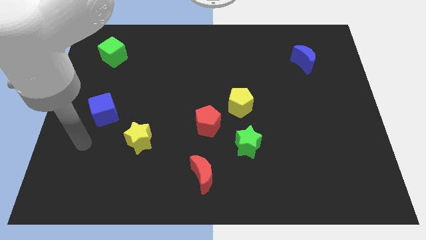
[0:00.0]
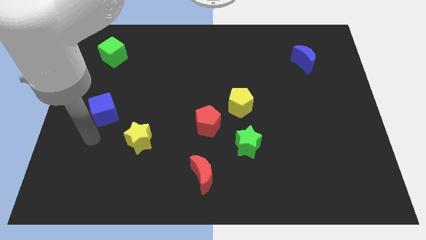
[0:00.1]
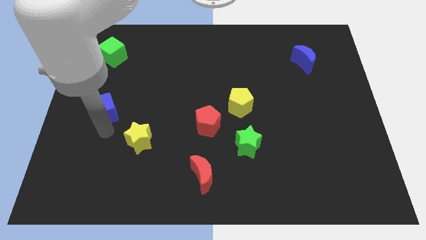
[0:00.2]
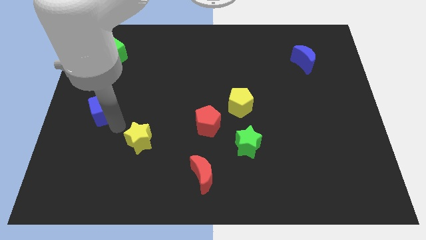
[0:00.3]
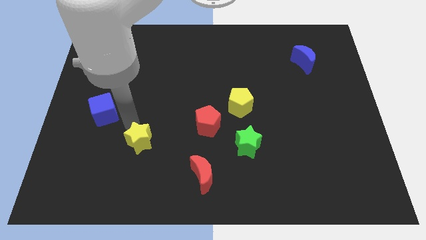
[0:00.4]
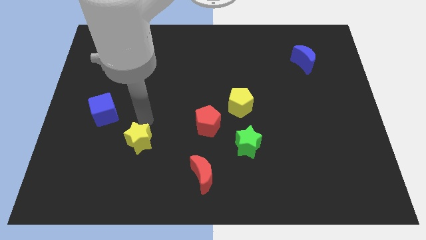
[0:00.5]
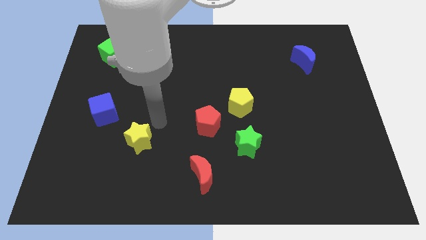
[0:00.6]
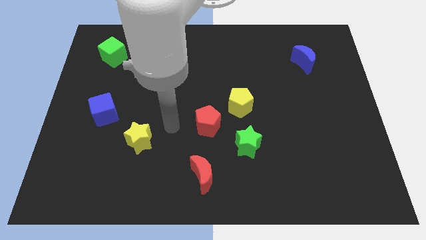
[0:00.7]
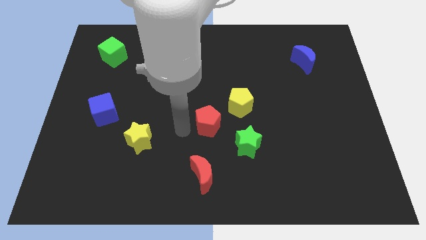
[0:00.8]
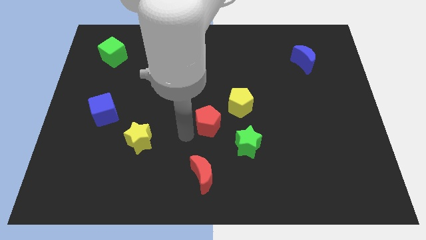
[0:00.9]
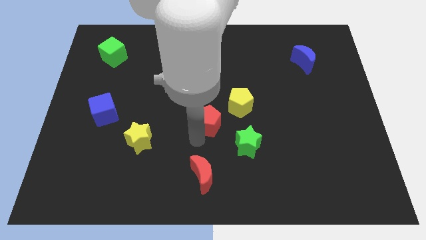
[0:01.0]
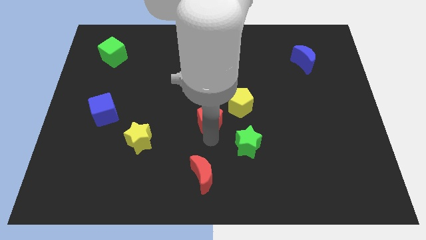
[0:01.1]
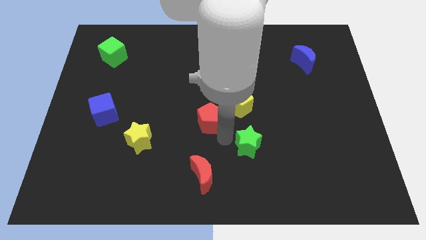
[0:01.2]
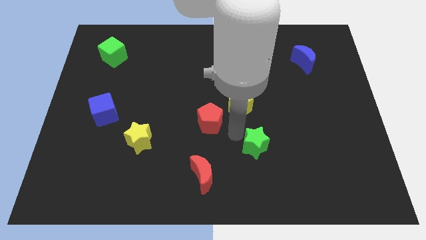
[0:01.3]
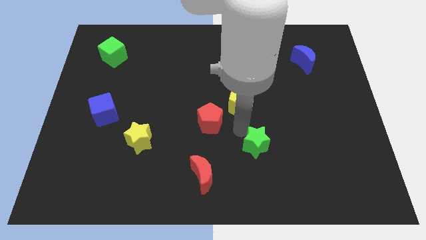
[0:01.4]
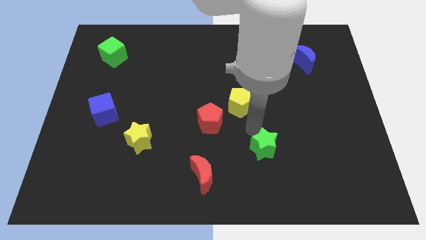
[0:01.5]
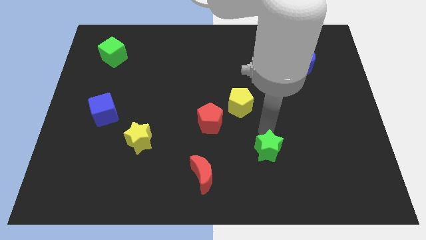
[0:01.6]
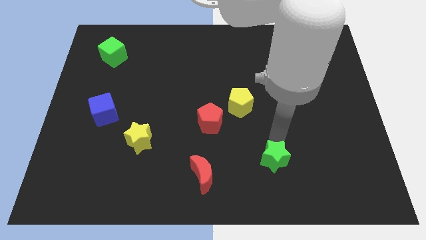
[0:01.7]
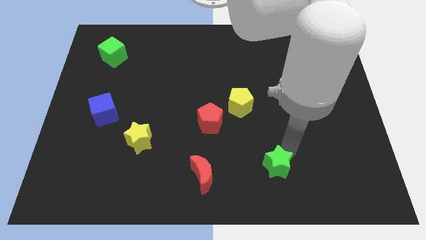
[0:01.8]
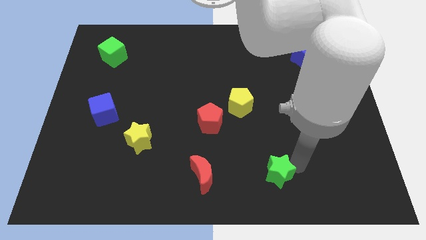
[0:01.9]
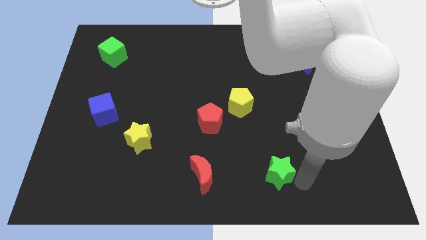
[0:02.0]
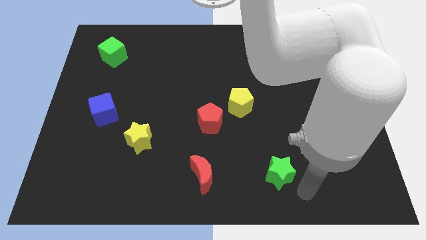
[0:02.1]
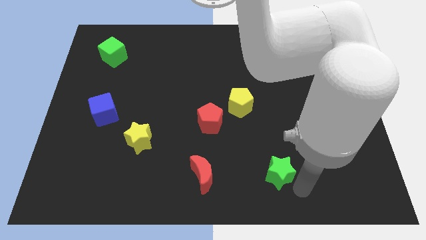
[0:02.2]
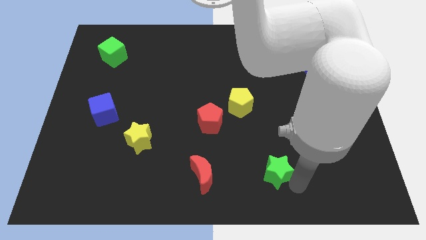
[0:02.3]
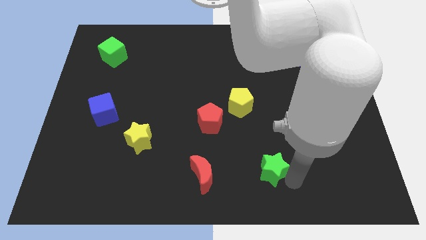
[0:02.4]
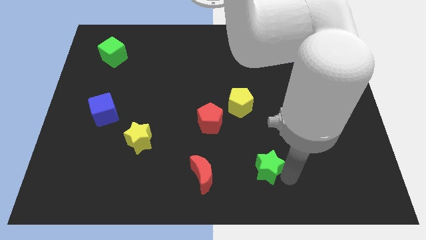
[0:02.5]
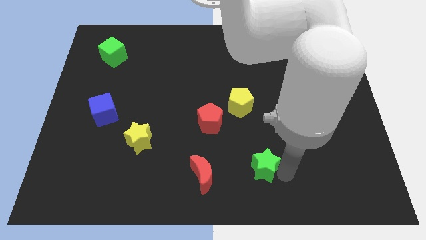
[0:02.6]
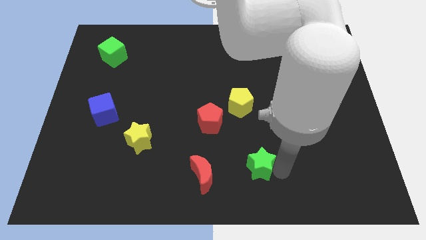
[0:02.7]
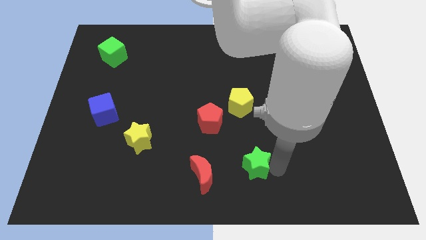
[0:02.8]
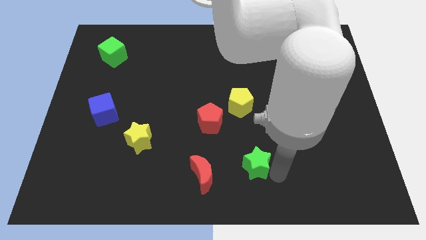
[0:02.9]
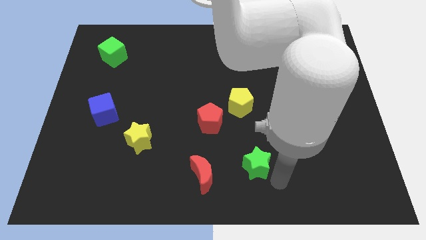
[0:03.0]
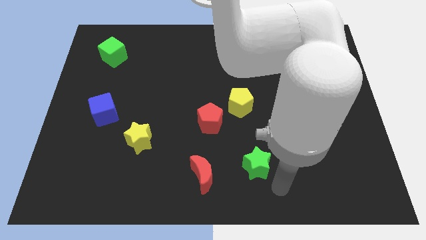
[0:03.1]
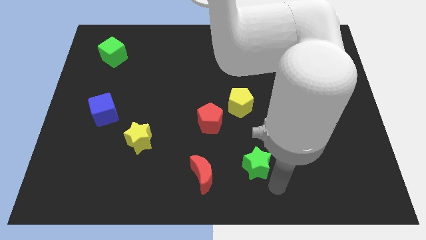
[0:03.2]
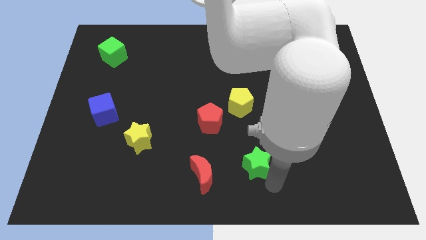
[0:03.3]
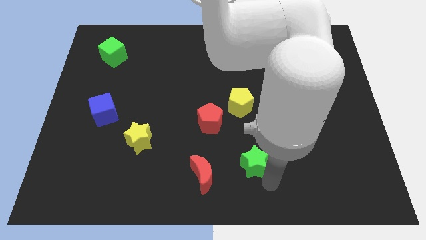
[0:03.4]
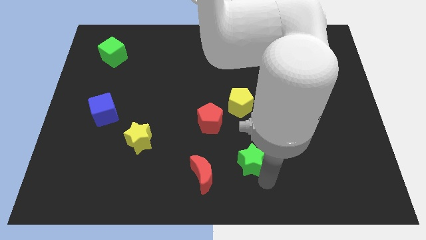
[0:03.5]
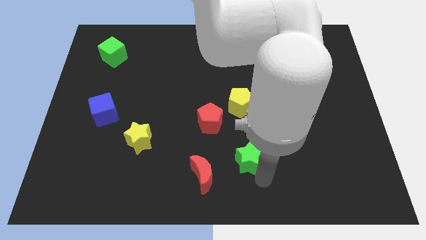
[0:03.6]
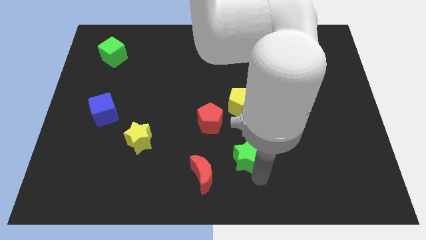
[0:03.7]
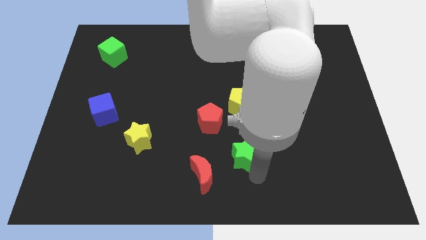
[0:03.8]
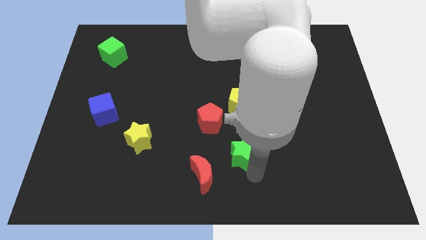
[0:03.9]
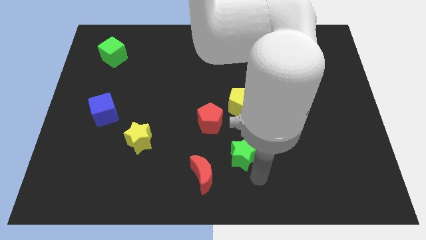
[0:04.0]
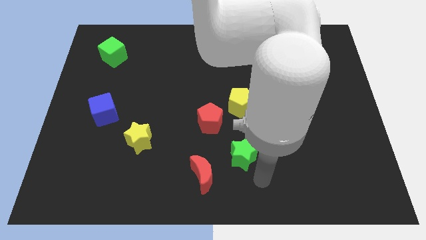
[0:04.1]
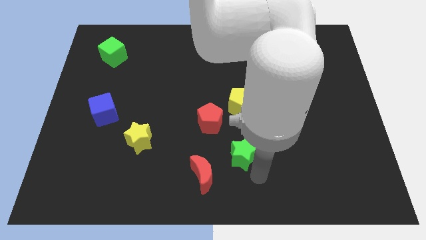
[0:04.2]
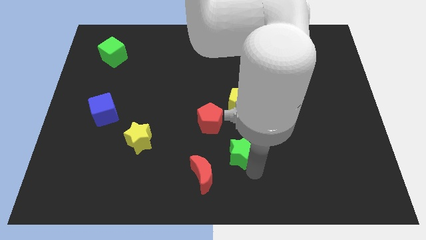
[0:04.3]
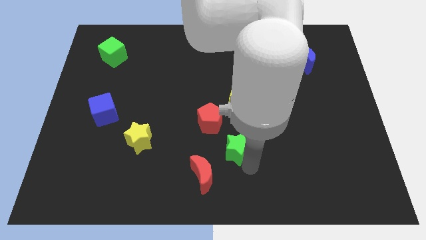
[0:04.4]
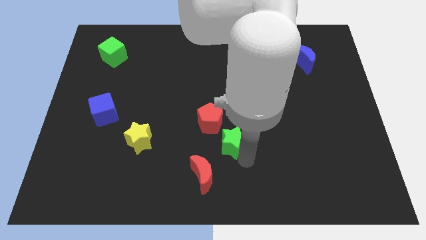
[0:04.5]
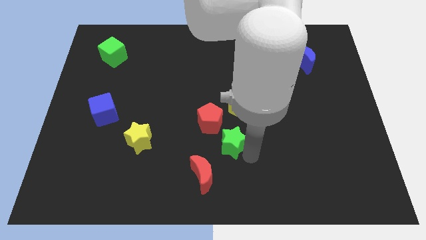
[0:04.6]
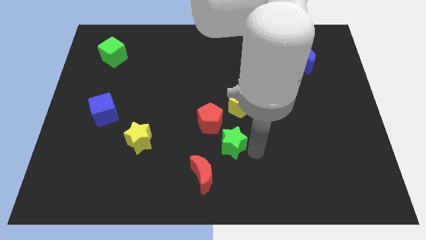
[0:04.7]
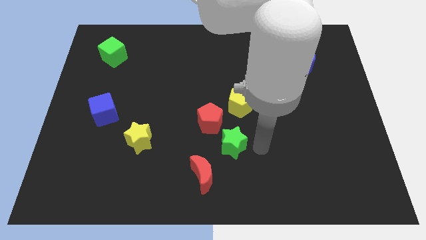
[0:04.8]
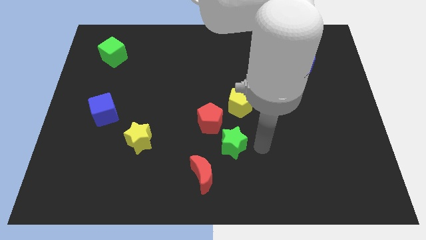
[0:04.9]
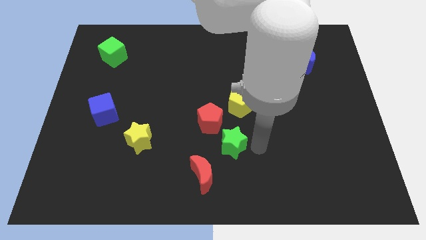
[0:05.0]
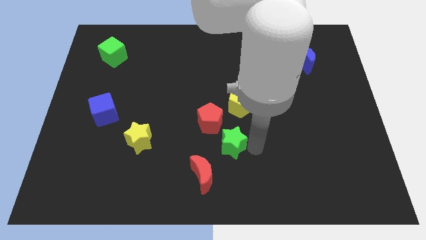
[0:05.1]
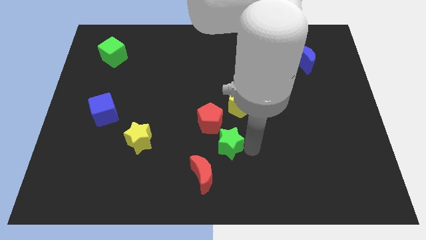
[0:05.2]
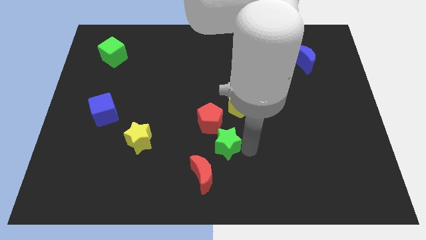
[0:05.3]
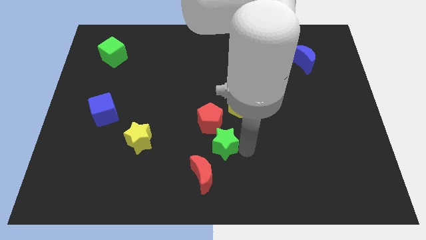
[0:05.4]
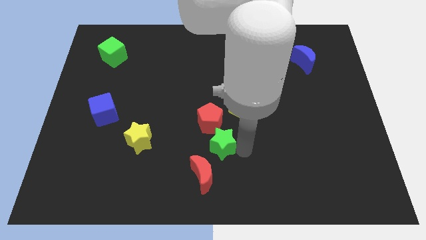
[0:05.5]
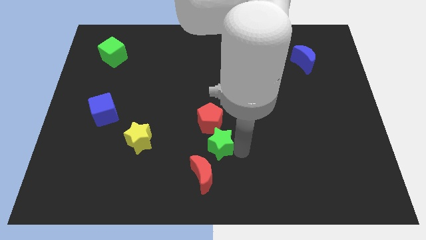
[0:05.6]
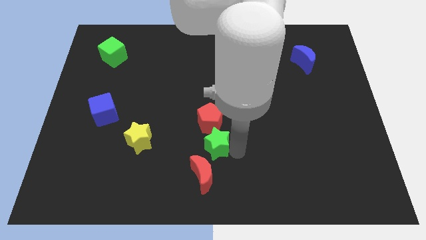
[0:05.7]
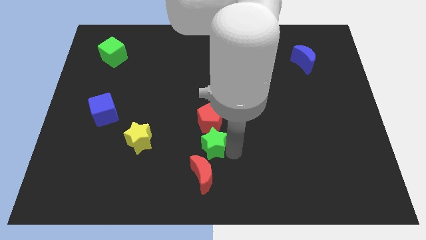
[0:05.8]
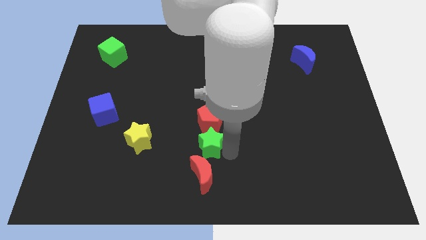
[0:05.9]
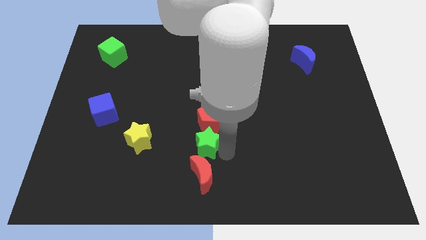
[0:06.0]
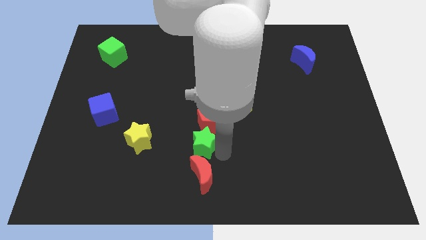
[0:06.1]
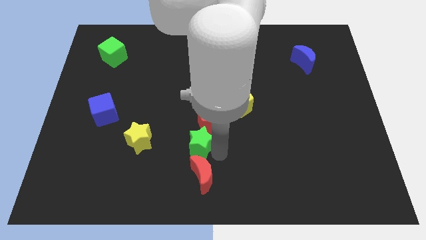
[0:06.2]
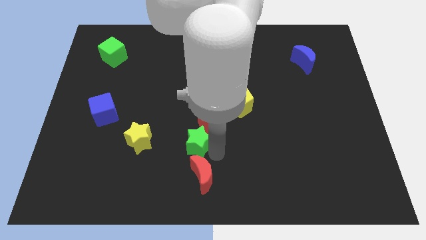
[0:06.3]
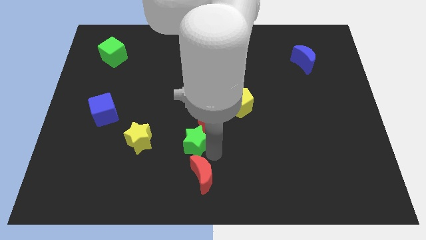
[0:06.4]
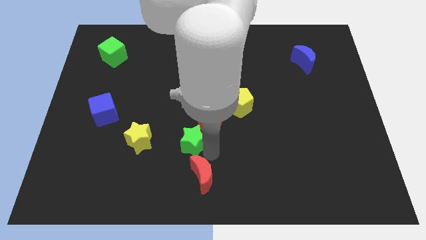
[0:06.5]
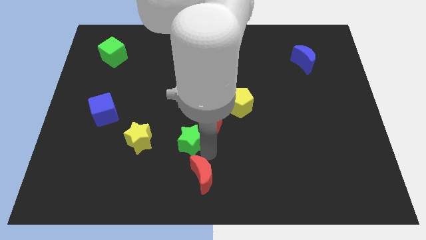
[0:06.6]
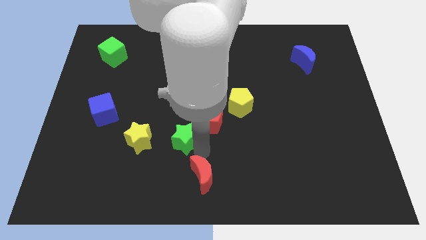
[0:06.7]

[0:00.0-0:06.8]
slide the green star a little upwards and to the left diagonally

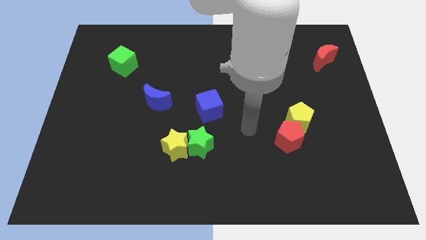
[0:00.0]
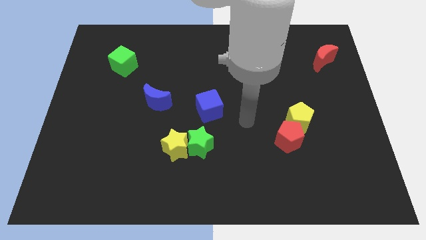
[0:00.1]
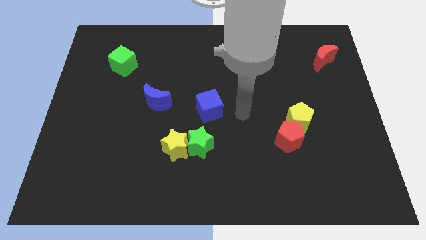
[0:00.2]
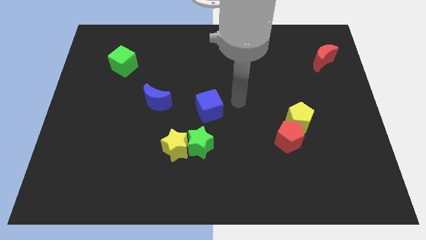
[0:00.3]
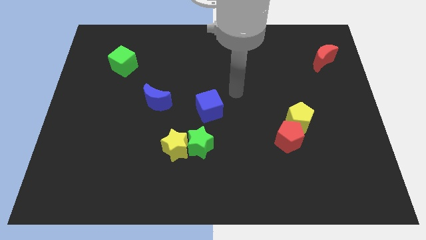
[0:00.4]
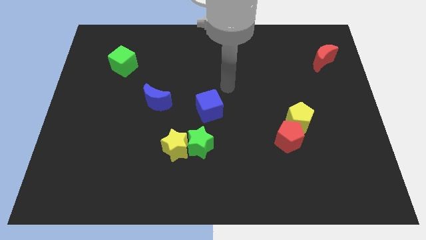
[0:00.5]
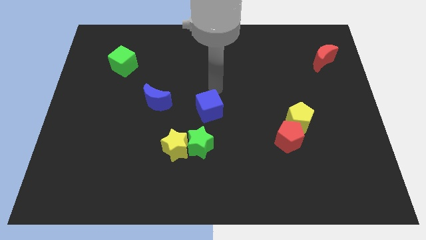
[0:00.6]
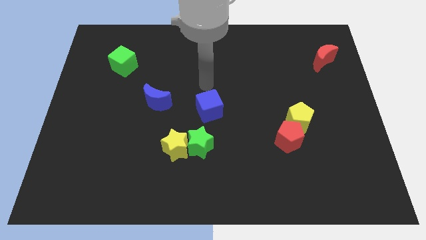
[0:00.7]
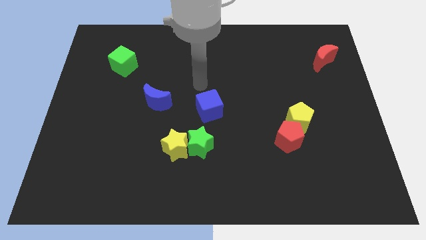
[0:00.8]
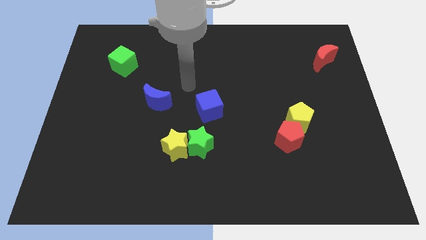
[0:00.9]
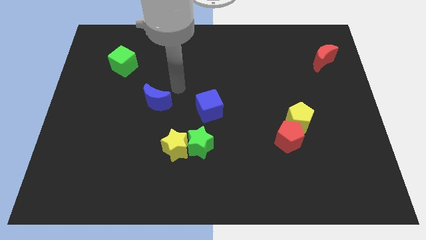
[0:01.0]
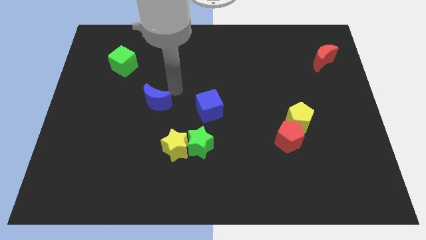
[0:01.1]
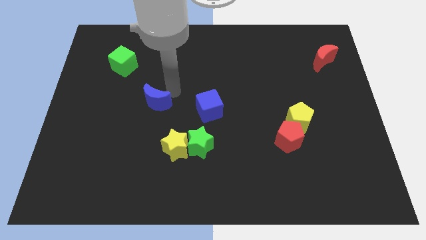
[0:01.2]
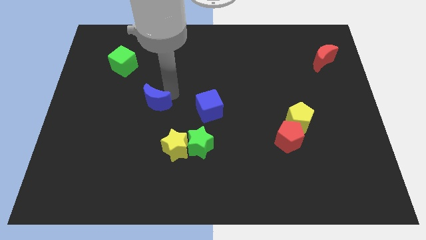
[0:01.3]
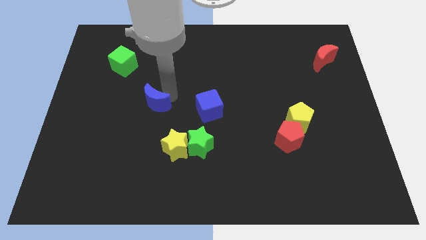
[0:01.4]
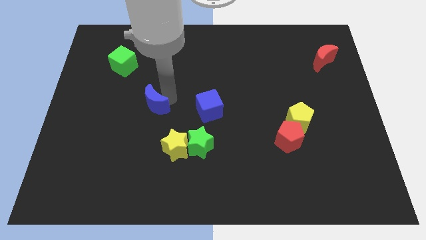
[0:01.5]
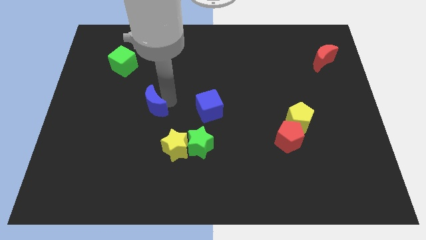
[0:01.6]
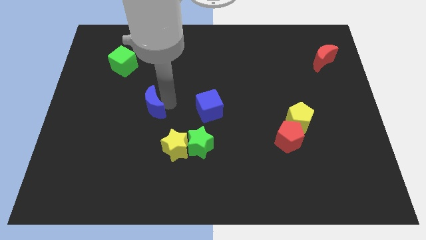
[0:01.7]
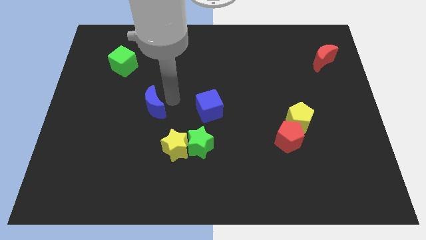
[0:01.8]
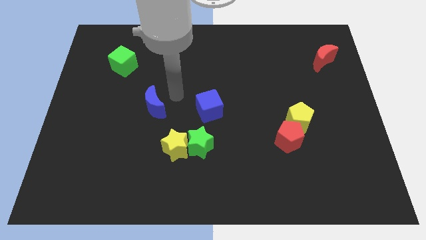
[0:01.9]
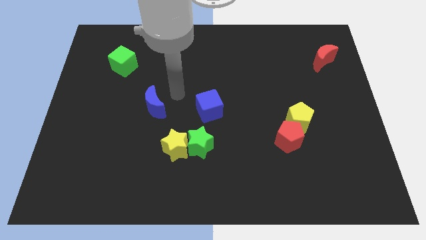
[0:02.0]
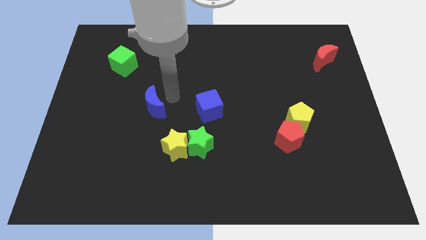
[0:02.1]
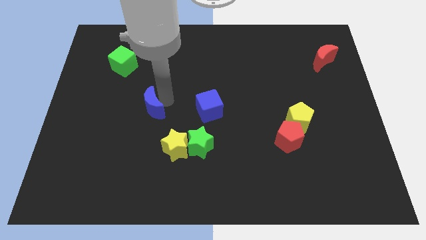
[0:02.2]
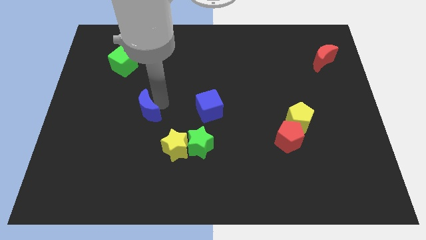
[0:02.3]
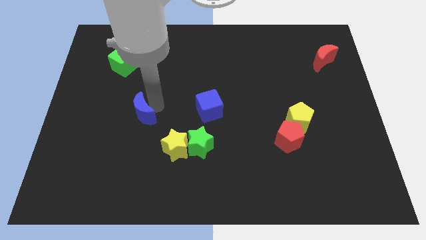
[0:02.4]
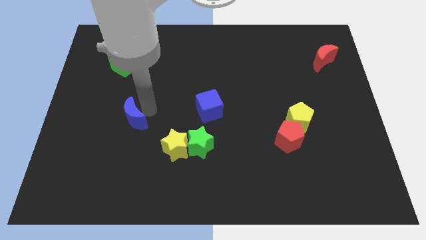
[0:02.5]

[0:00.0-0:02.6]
move the blue moon downwards and to the left diagonally a bit
